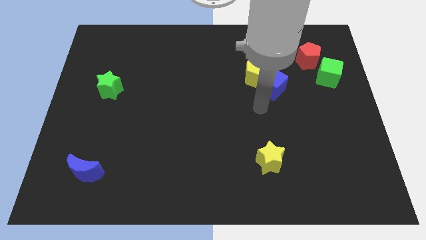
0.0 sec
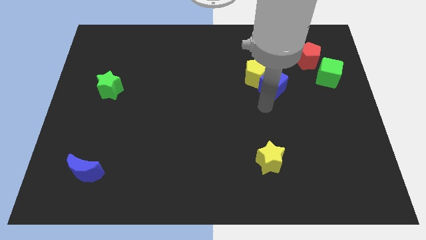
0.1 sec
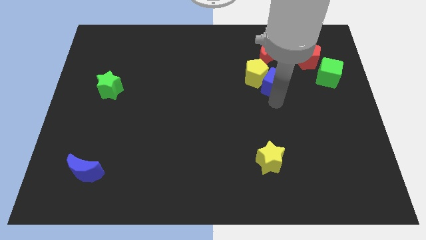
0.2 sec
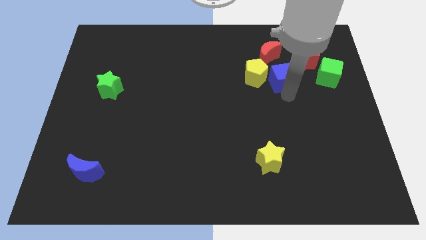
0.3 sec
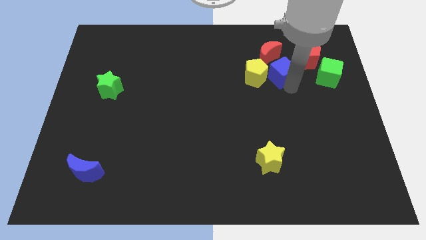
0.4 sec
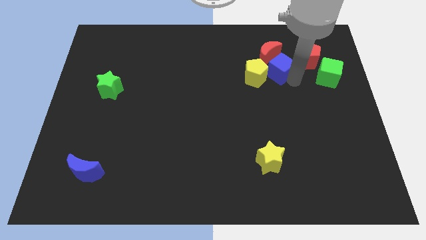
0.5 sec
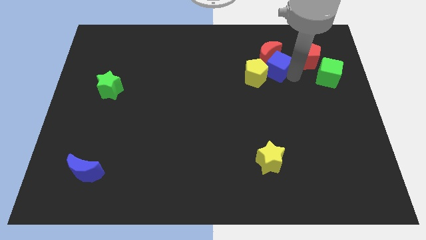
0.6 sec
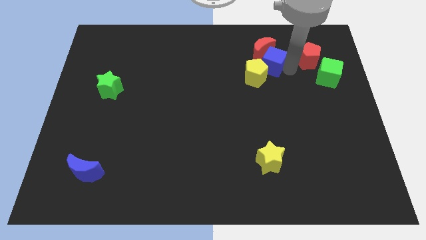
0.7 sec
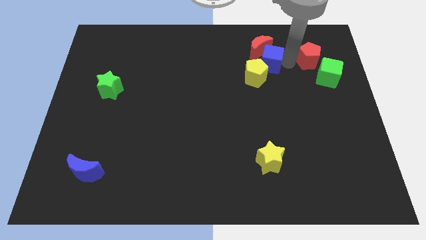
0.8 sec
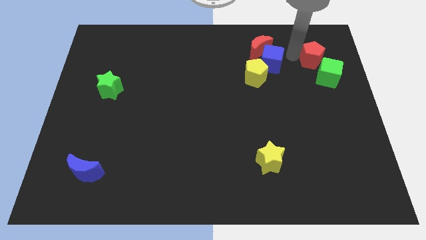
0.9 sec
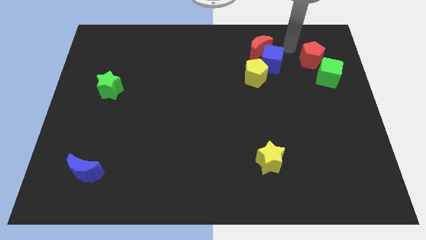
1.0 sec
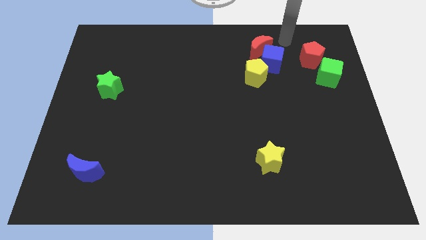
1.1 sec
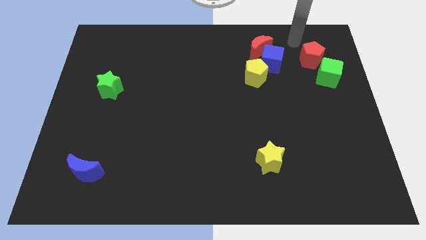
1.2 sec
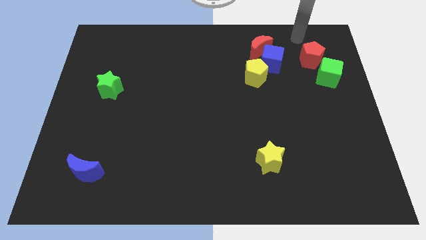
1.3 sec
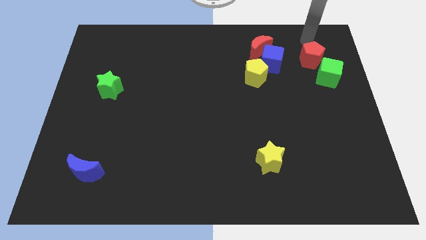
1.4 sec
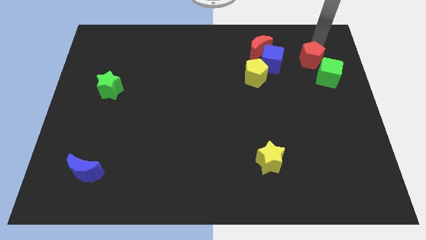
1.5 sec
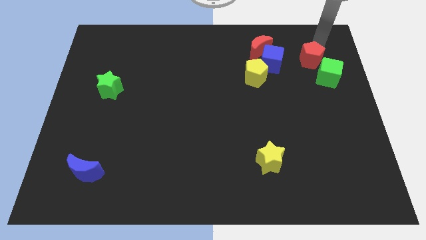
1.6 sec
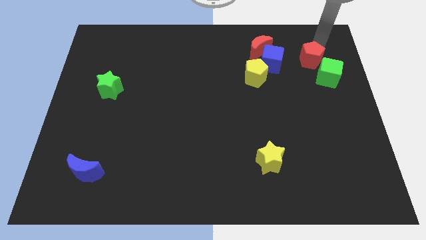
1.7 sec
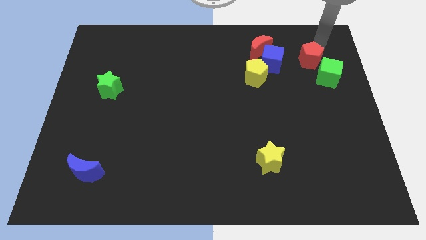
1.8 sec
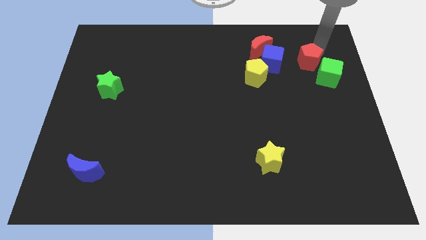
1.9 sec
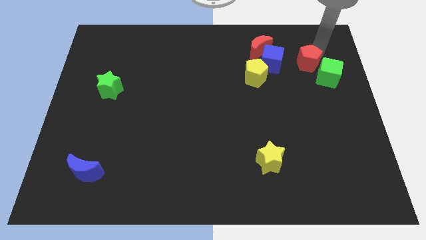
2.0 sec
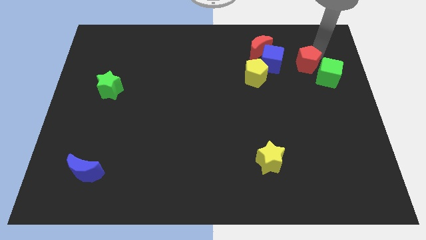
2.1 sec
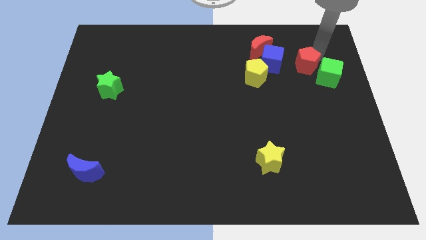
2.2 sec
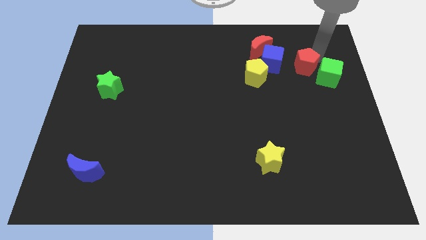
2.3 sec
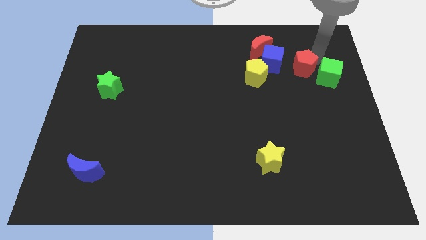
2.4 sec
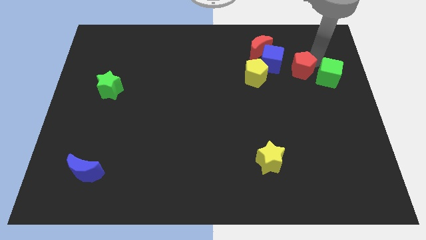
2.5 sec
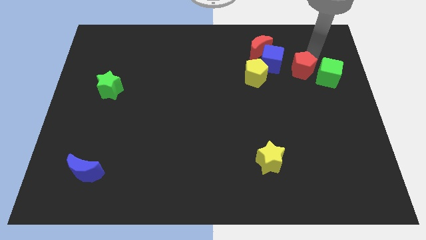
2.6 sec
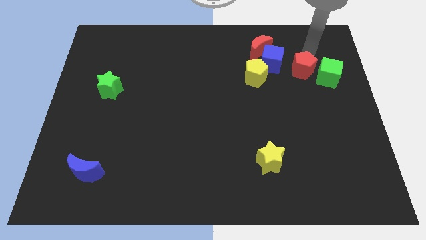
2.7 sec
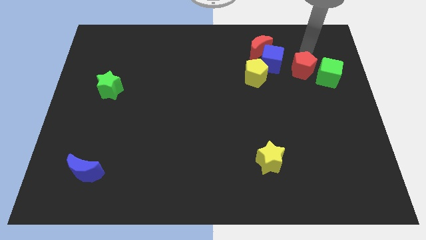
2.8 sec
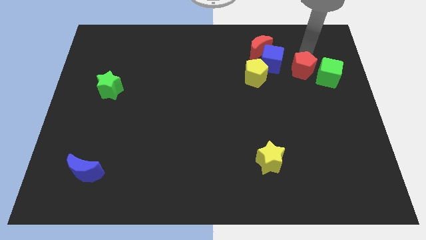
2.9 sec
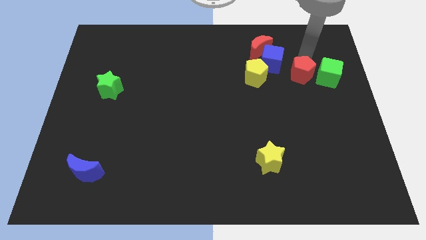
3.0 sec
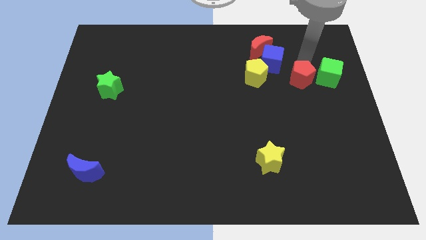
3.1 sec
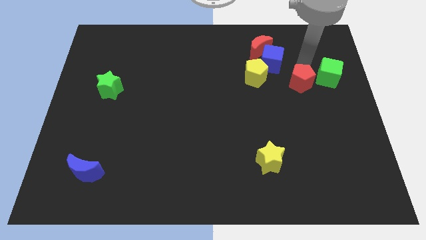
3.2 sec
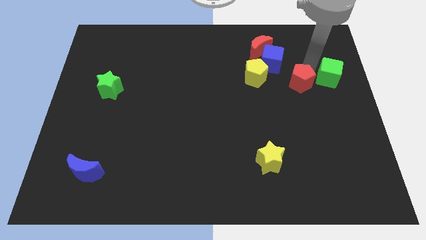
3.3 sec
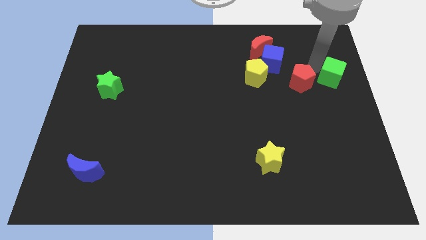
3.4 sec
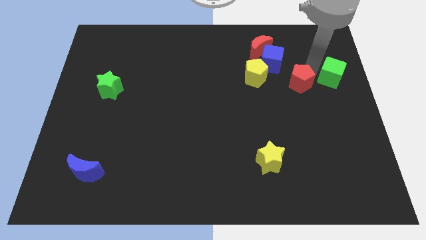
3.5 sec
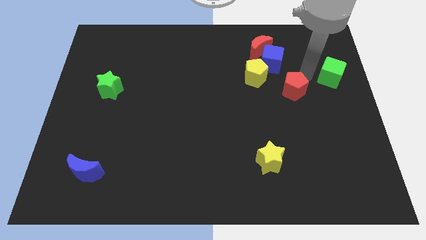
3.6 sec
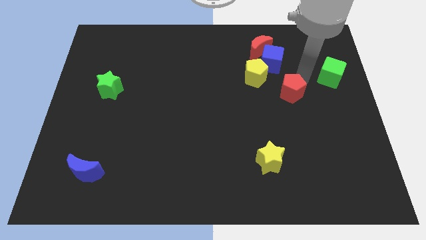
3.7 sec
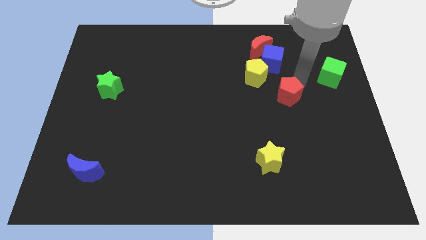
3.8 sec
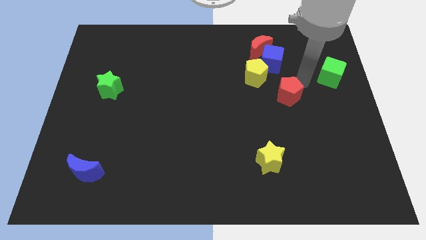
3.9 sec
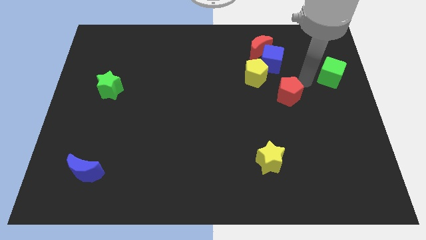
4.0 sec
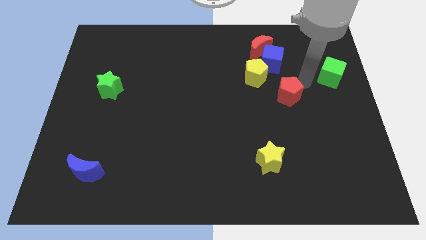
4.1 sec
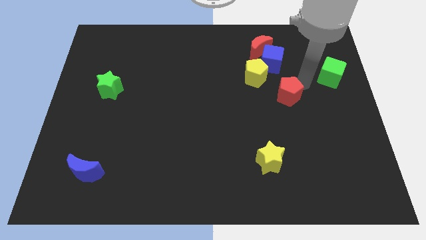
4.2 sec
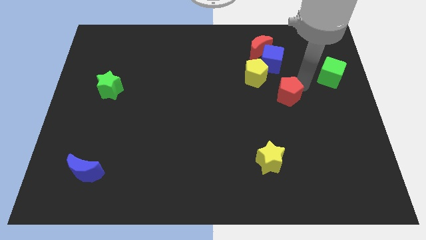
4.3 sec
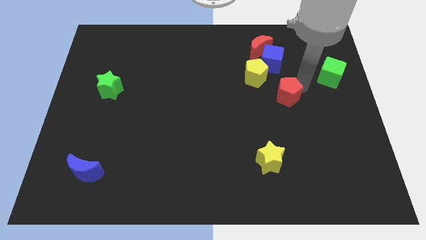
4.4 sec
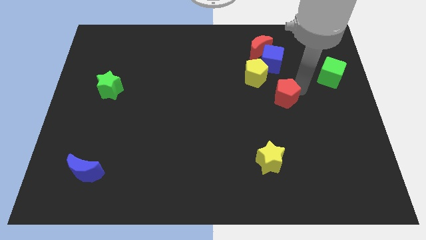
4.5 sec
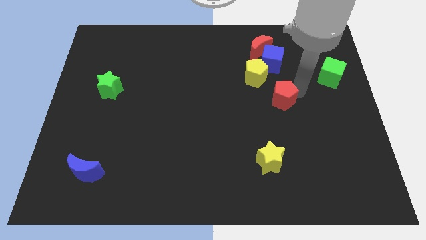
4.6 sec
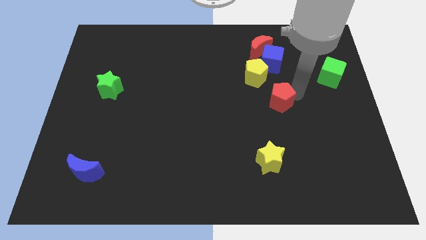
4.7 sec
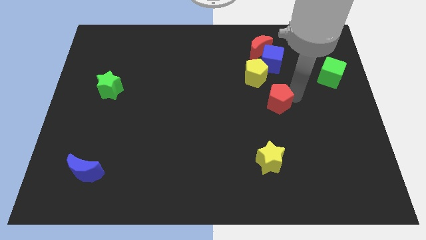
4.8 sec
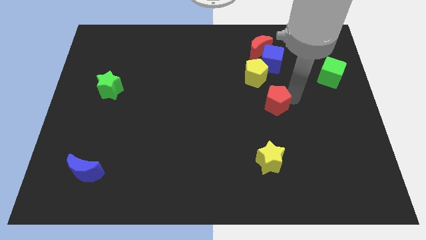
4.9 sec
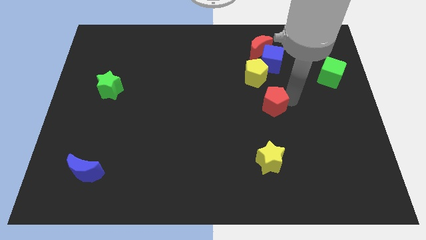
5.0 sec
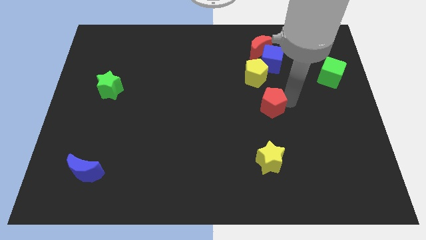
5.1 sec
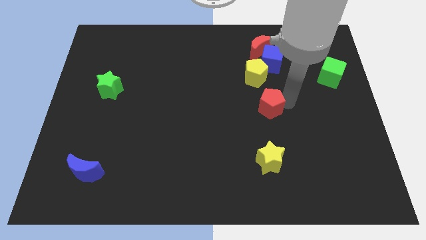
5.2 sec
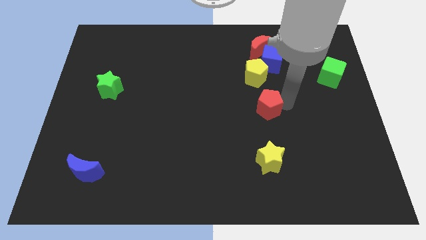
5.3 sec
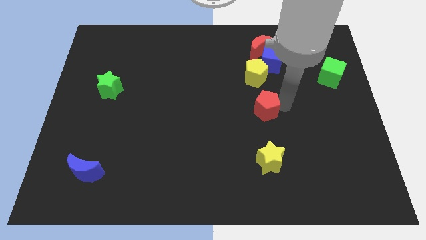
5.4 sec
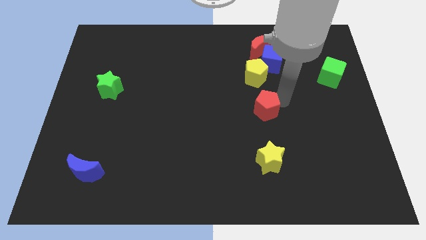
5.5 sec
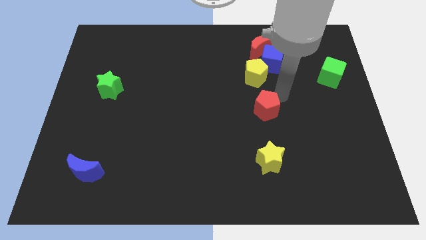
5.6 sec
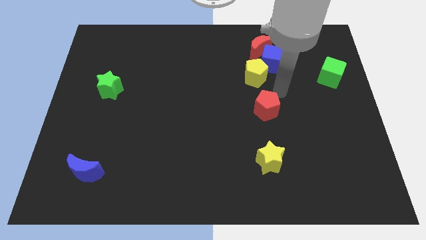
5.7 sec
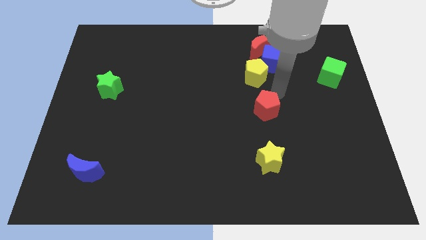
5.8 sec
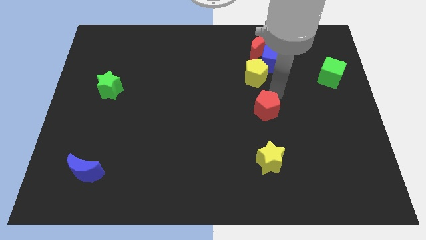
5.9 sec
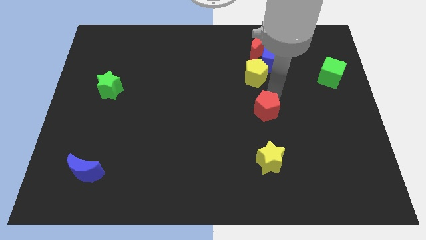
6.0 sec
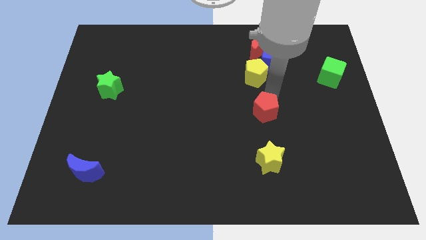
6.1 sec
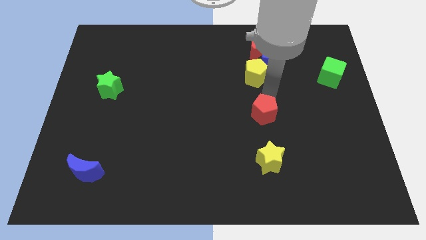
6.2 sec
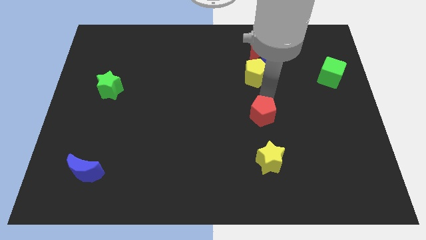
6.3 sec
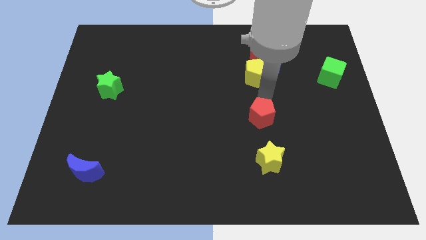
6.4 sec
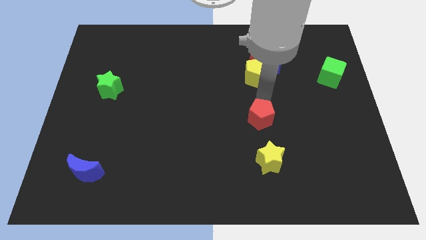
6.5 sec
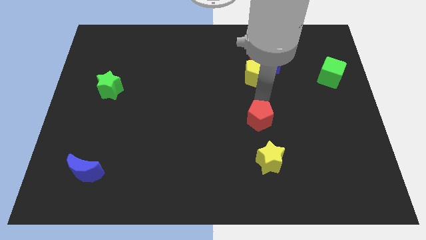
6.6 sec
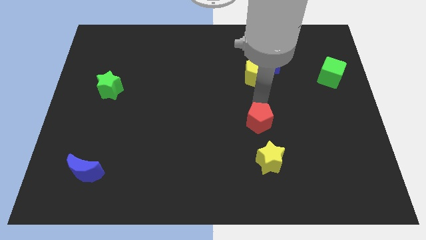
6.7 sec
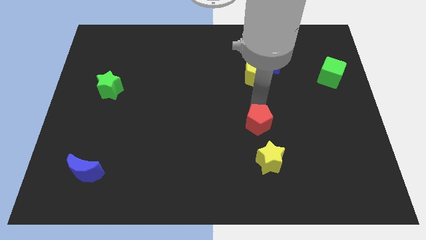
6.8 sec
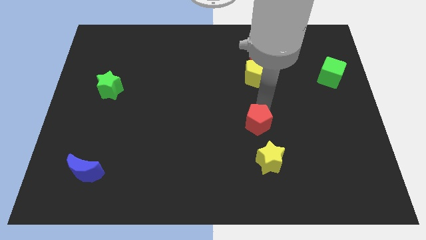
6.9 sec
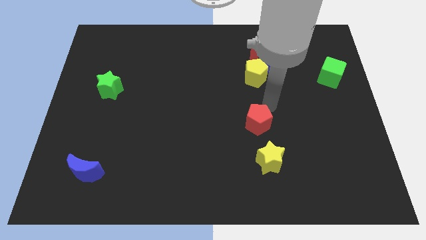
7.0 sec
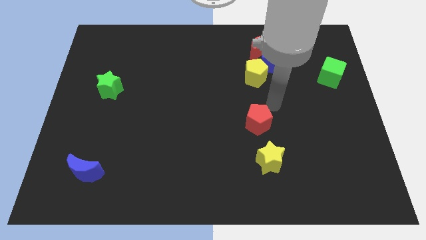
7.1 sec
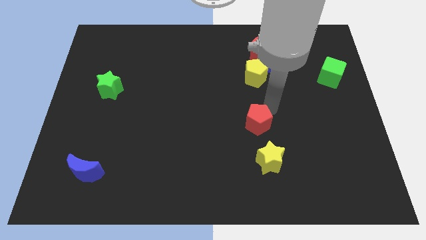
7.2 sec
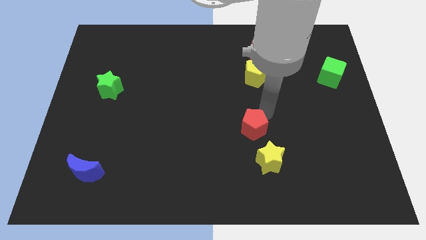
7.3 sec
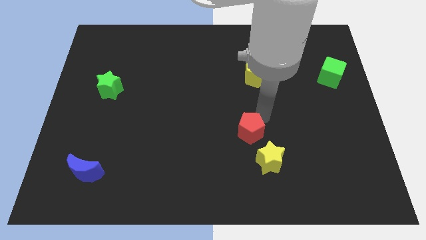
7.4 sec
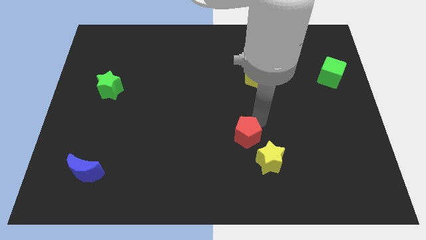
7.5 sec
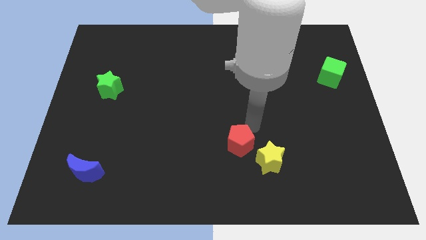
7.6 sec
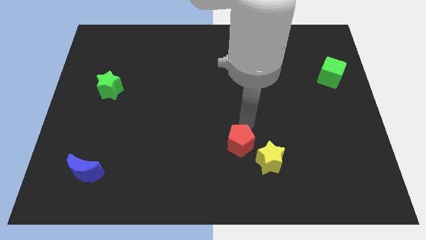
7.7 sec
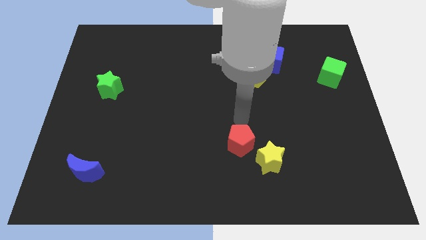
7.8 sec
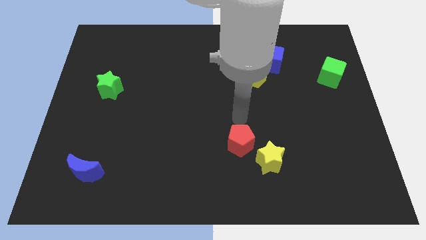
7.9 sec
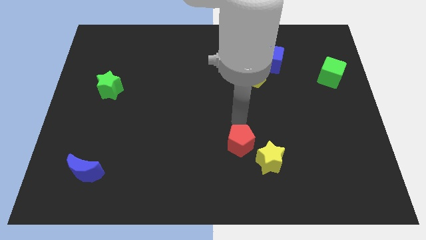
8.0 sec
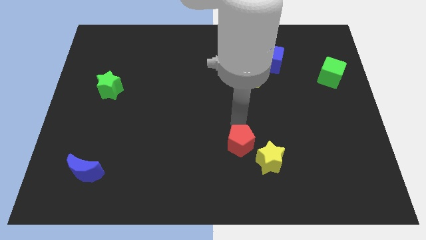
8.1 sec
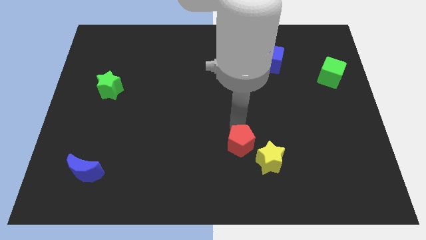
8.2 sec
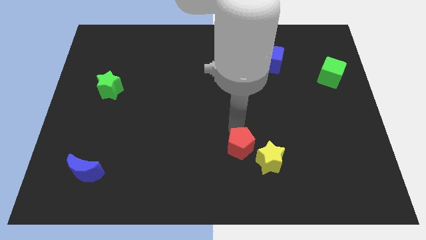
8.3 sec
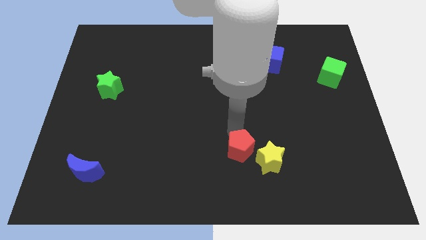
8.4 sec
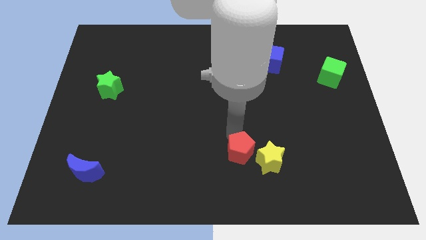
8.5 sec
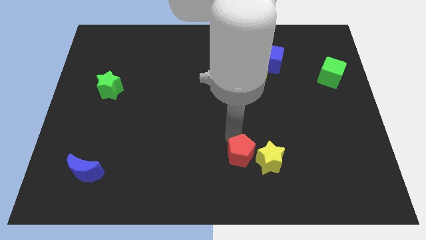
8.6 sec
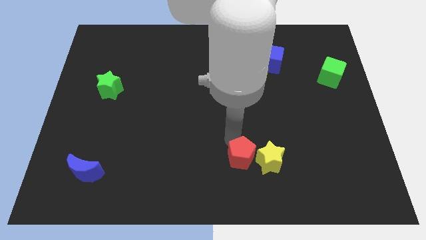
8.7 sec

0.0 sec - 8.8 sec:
push the red pentagon to the bottom side
